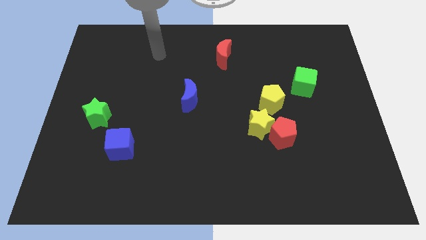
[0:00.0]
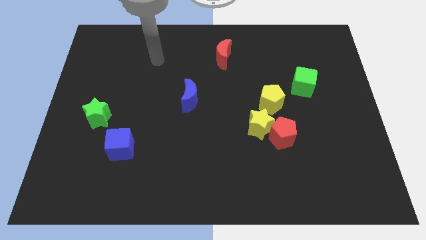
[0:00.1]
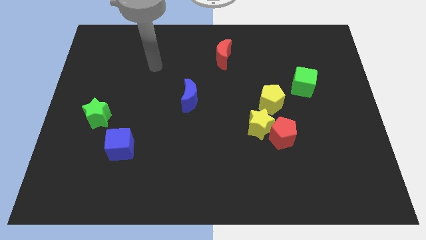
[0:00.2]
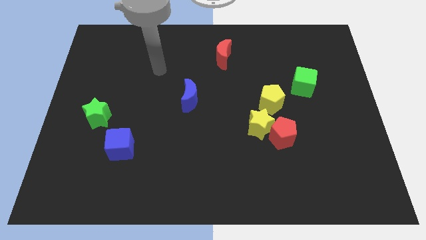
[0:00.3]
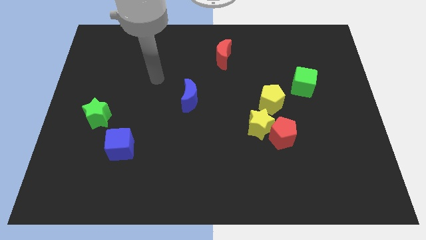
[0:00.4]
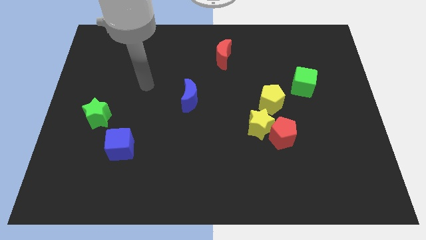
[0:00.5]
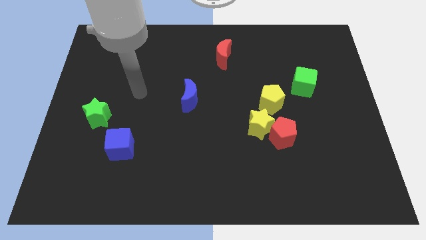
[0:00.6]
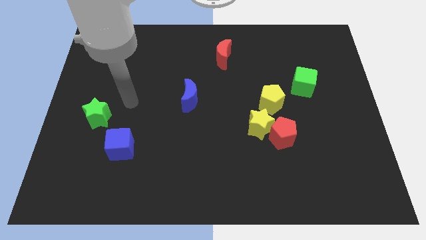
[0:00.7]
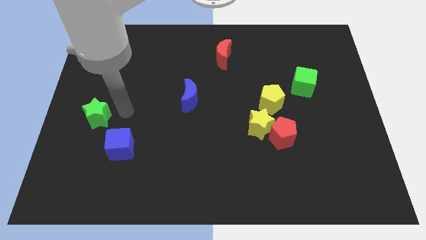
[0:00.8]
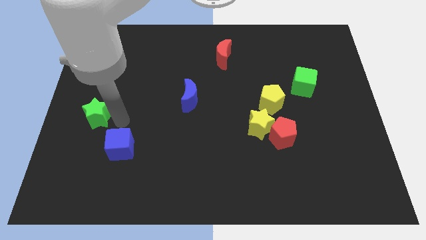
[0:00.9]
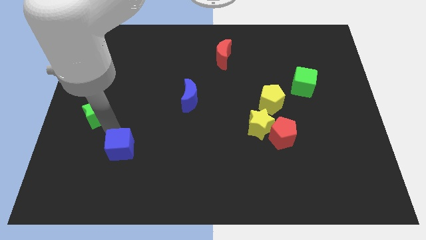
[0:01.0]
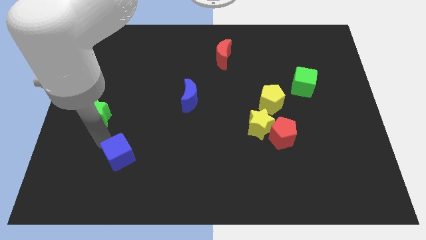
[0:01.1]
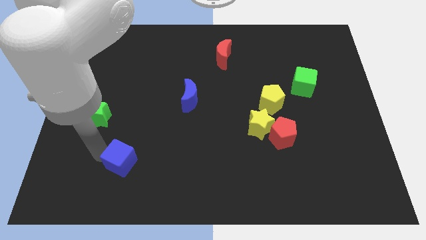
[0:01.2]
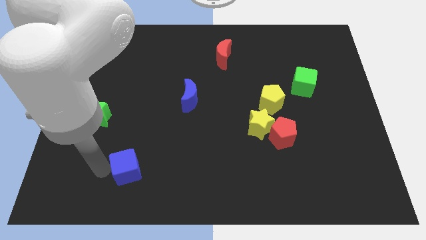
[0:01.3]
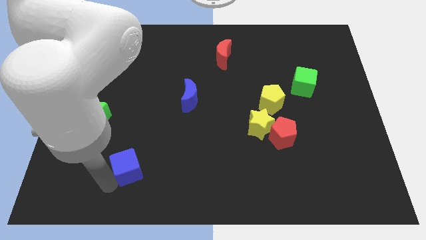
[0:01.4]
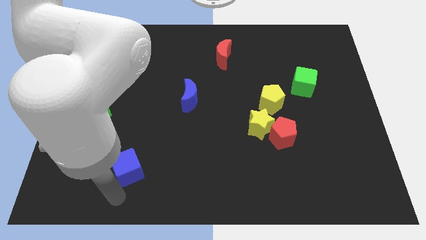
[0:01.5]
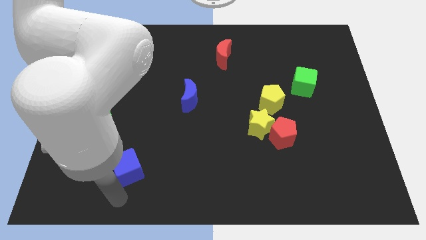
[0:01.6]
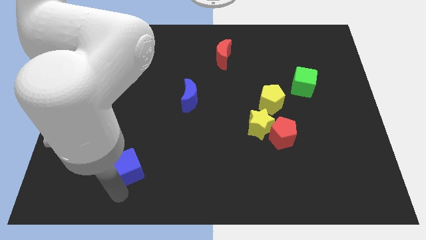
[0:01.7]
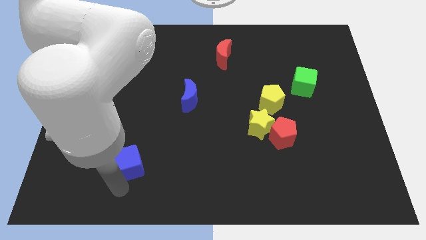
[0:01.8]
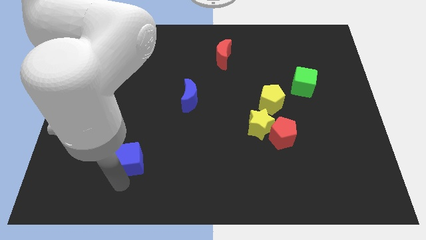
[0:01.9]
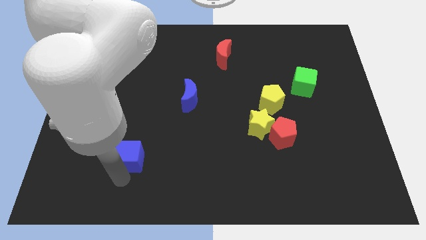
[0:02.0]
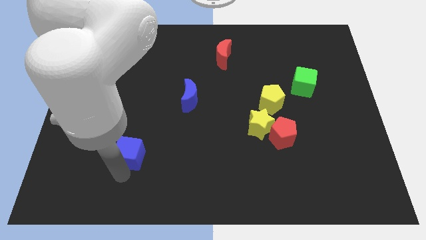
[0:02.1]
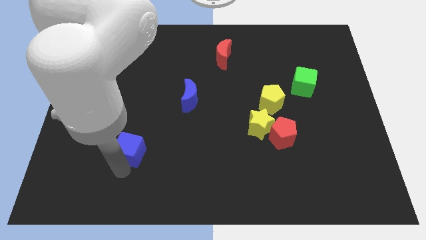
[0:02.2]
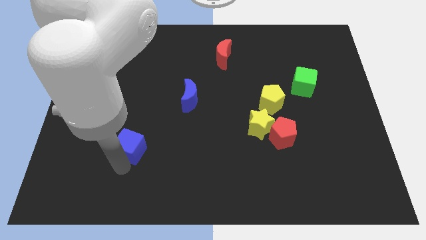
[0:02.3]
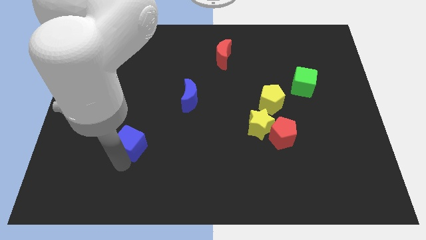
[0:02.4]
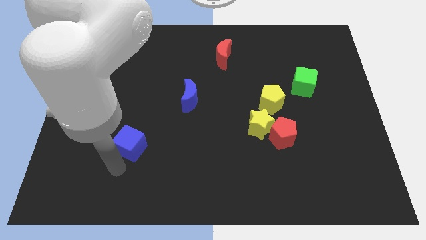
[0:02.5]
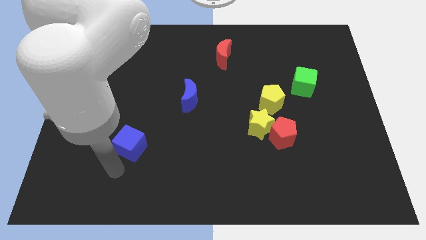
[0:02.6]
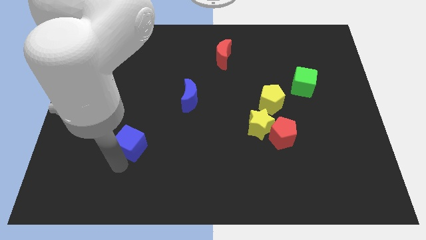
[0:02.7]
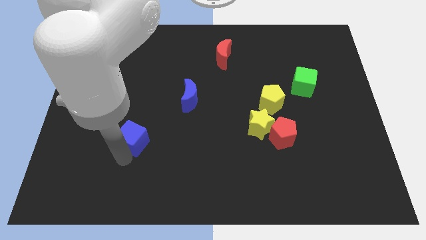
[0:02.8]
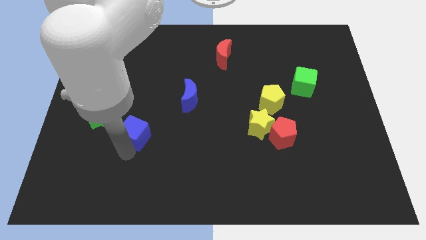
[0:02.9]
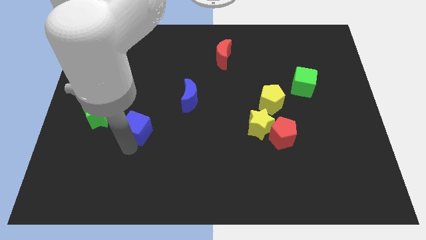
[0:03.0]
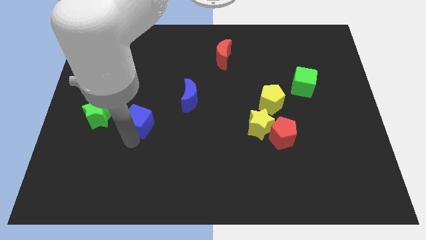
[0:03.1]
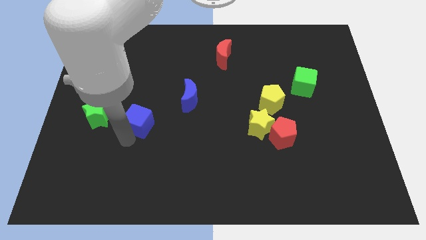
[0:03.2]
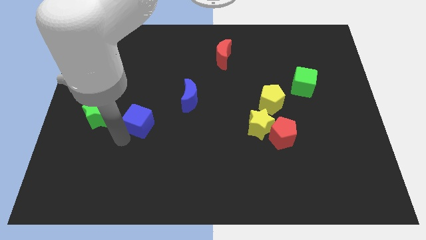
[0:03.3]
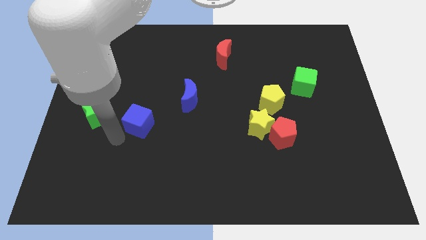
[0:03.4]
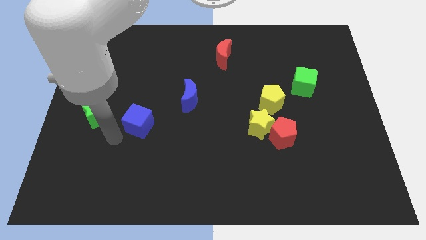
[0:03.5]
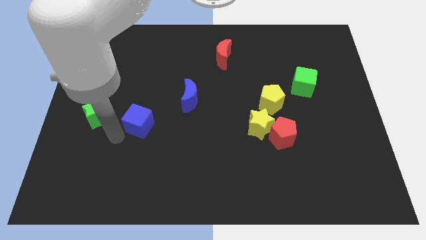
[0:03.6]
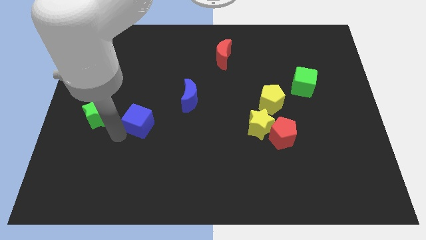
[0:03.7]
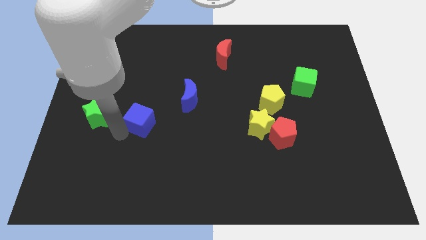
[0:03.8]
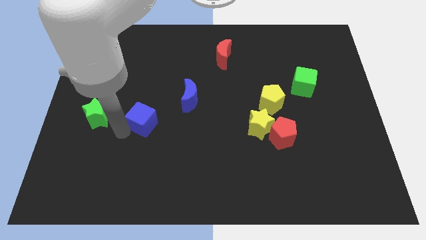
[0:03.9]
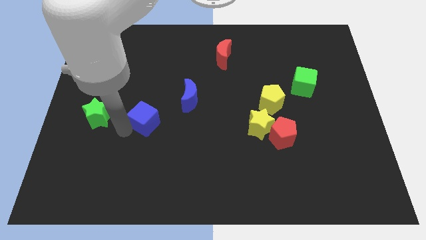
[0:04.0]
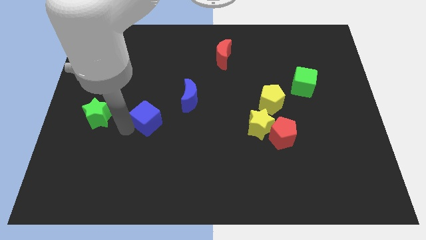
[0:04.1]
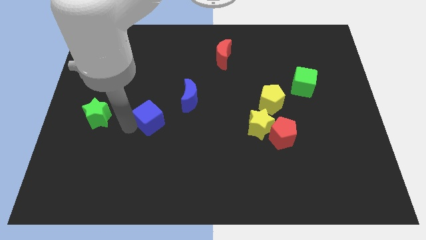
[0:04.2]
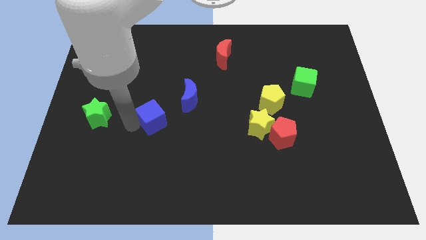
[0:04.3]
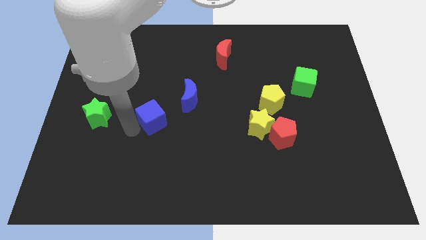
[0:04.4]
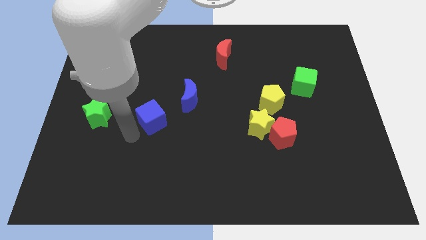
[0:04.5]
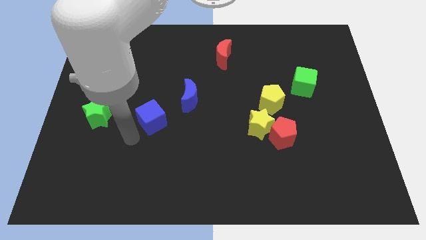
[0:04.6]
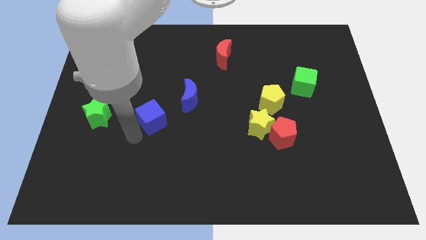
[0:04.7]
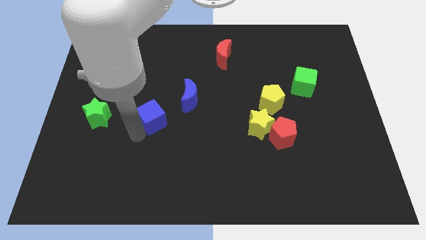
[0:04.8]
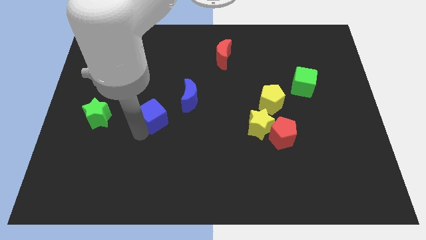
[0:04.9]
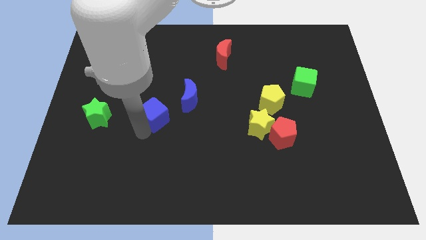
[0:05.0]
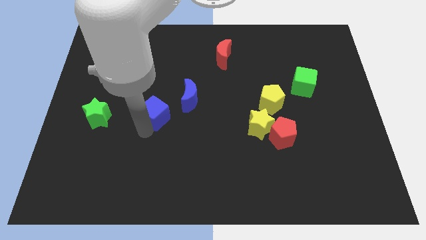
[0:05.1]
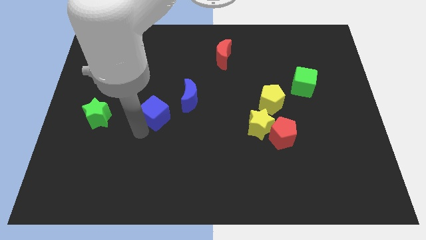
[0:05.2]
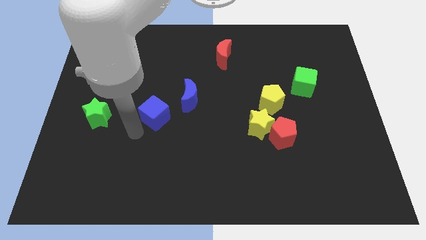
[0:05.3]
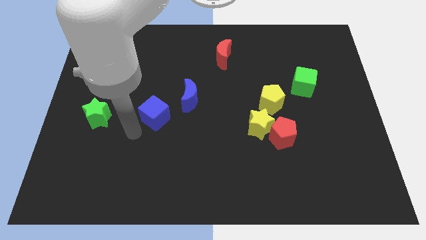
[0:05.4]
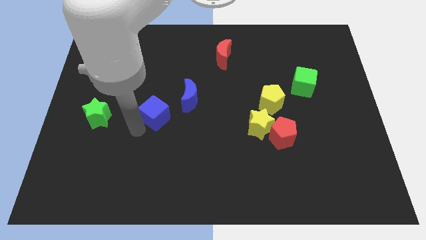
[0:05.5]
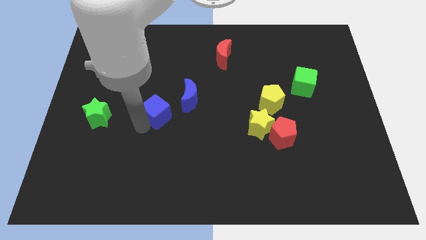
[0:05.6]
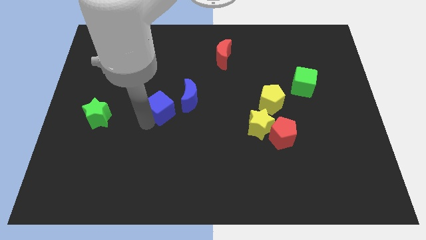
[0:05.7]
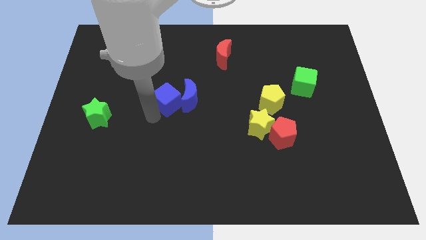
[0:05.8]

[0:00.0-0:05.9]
push the blue cube close to the blue moon

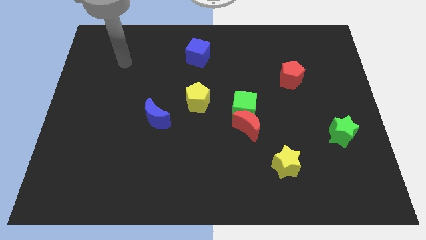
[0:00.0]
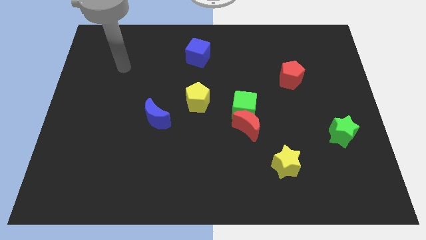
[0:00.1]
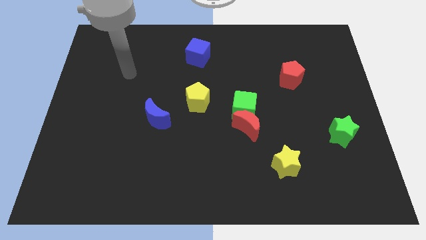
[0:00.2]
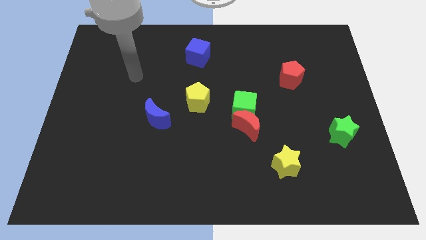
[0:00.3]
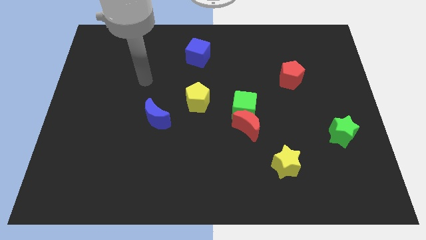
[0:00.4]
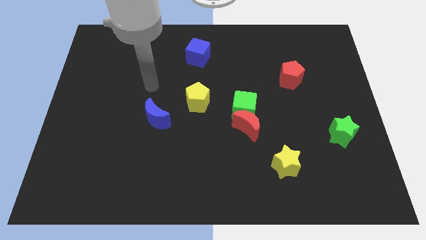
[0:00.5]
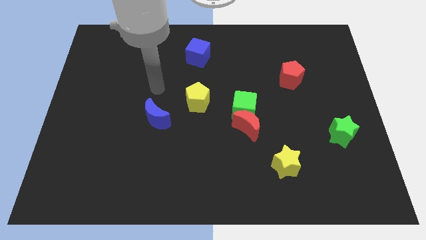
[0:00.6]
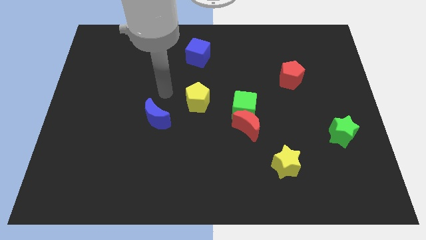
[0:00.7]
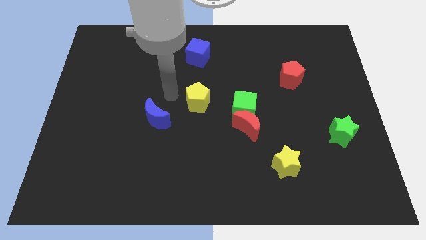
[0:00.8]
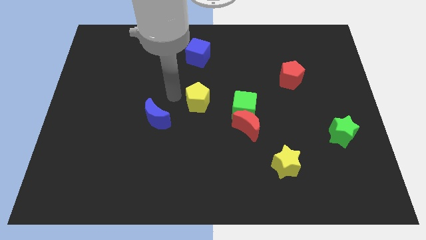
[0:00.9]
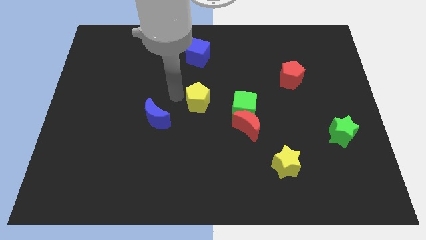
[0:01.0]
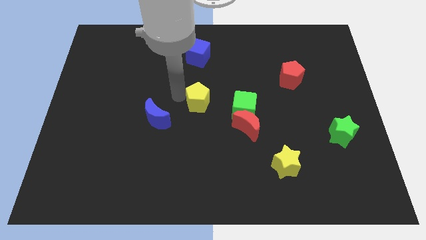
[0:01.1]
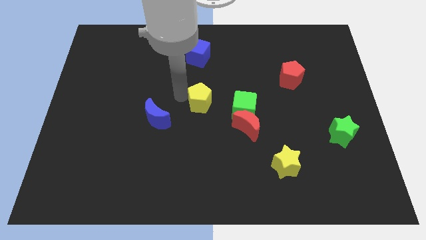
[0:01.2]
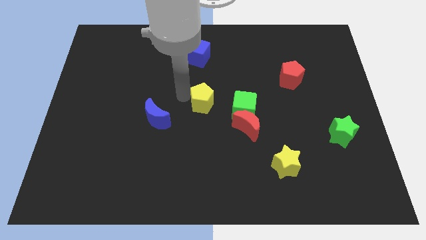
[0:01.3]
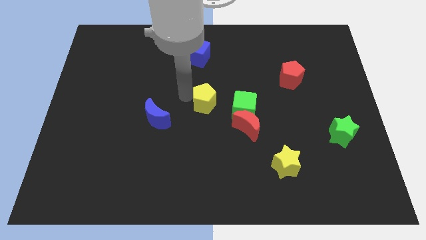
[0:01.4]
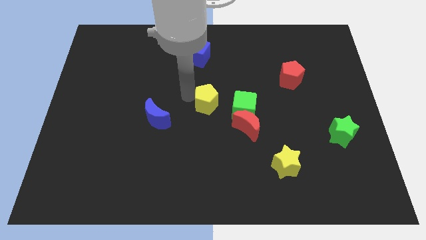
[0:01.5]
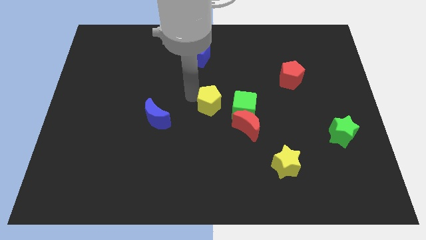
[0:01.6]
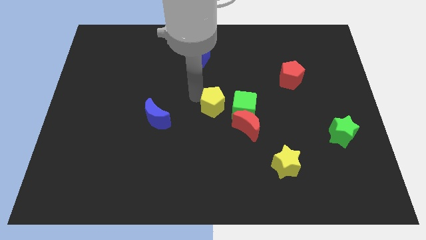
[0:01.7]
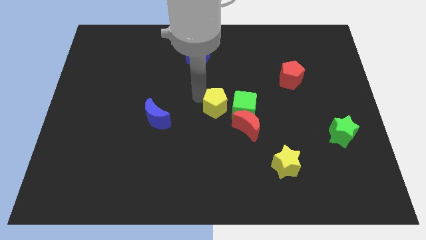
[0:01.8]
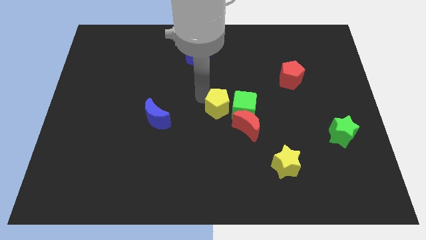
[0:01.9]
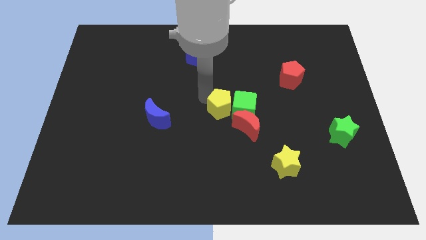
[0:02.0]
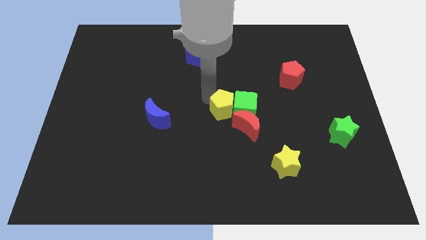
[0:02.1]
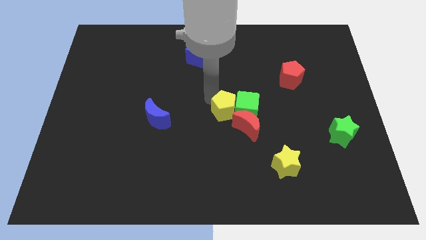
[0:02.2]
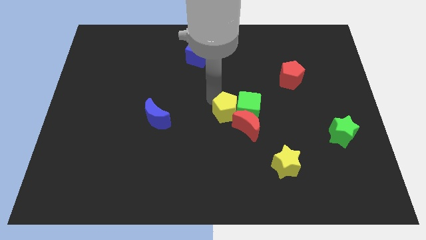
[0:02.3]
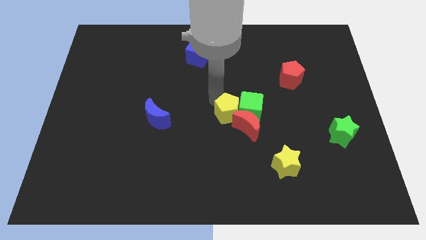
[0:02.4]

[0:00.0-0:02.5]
move the yellow pentagon next to the red moon

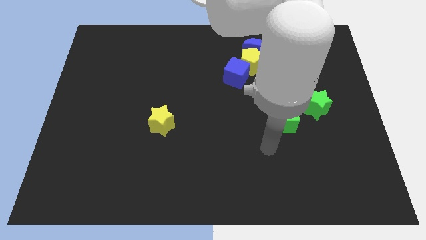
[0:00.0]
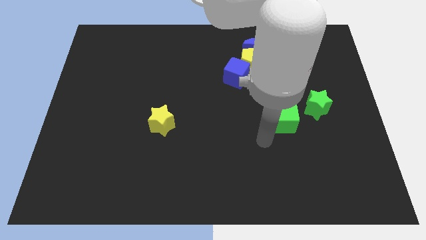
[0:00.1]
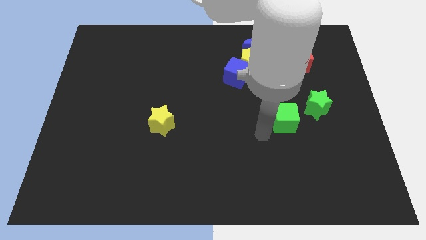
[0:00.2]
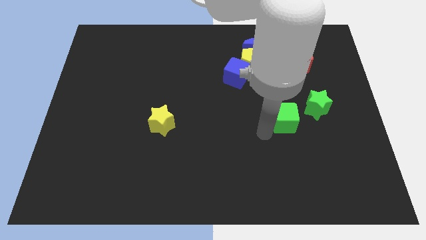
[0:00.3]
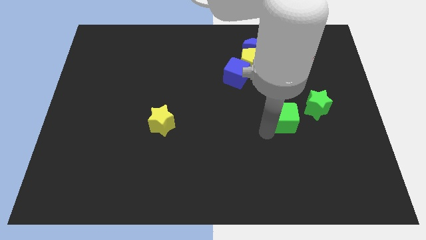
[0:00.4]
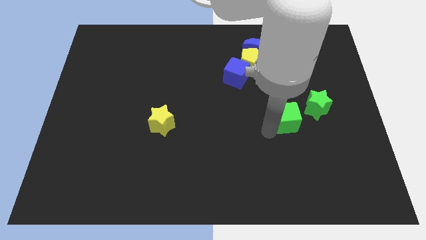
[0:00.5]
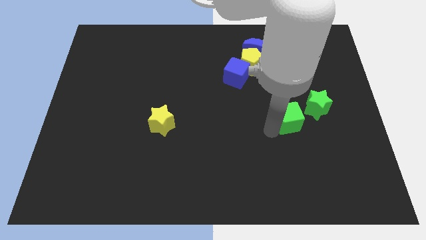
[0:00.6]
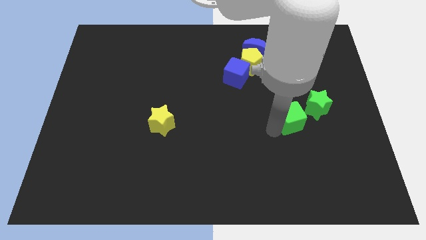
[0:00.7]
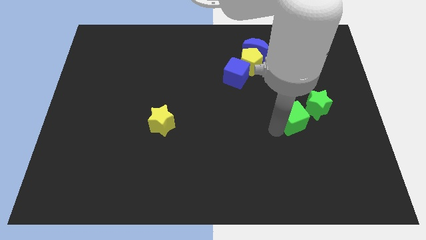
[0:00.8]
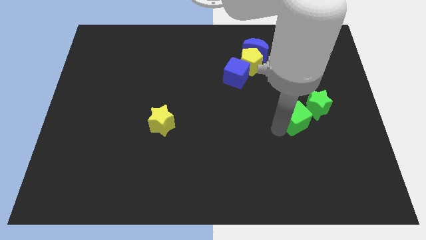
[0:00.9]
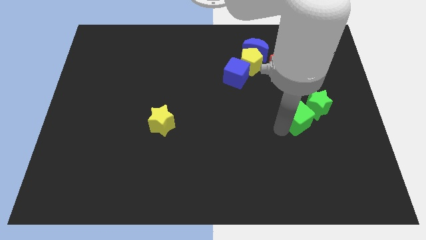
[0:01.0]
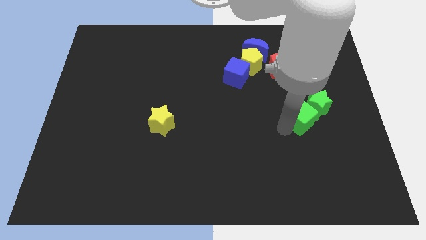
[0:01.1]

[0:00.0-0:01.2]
put the green cube next to the green star
